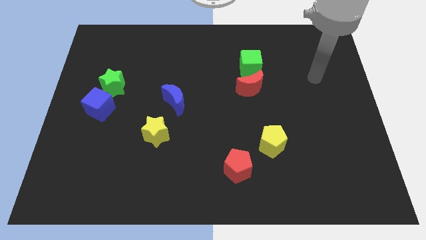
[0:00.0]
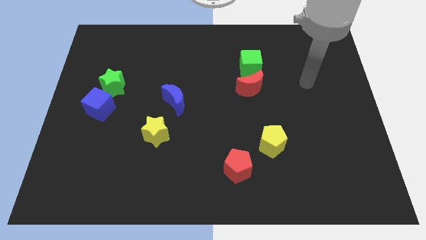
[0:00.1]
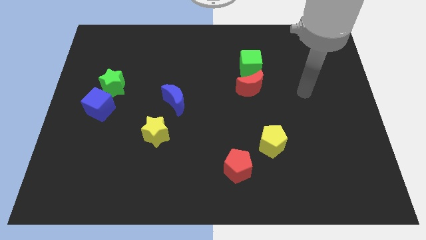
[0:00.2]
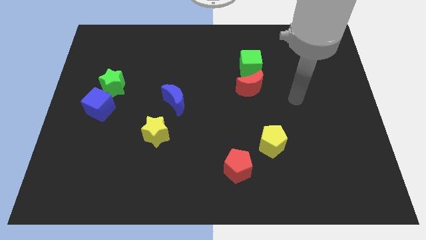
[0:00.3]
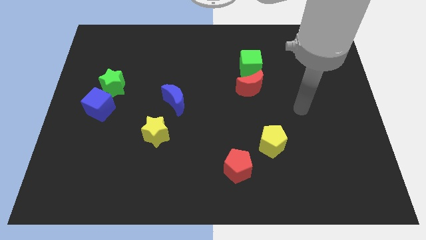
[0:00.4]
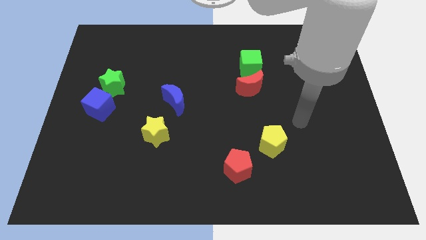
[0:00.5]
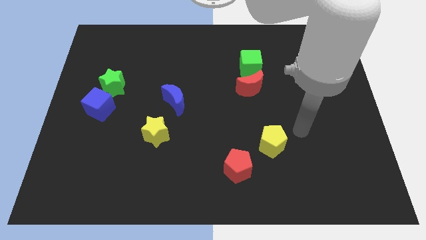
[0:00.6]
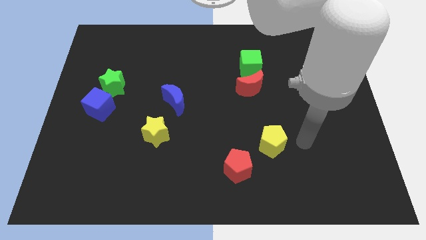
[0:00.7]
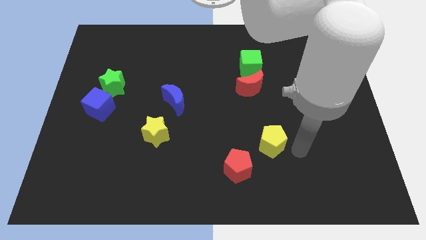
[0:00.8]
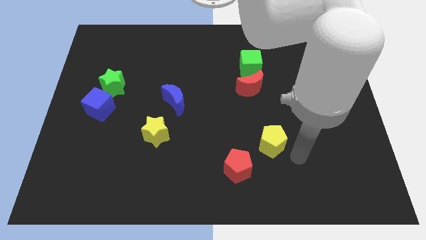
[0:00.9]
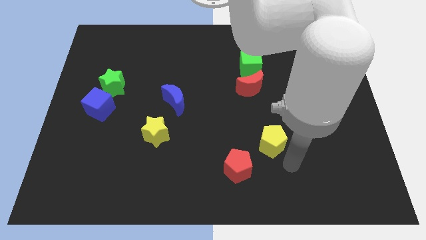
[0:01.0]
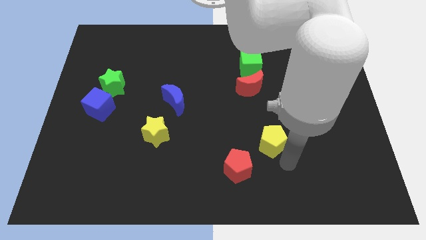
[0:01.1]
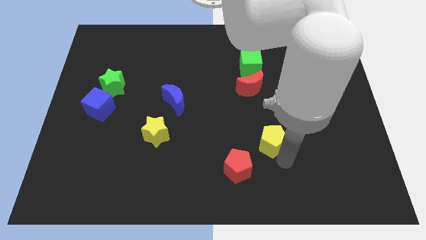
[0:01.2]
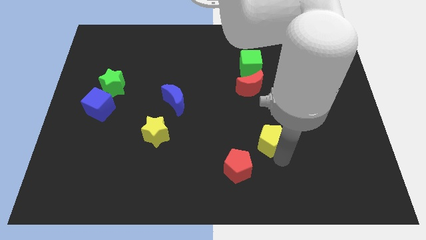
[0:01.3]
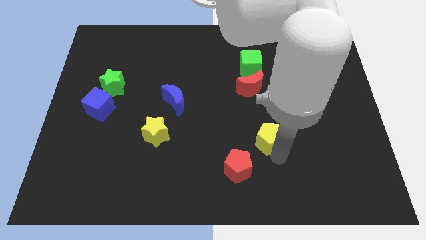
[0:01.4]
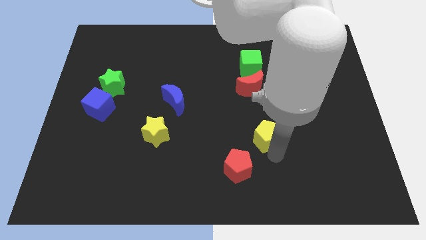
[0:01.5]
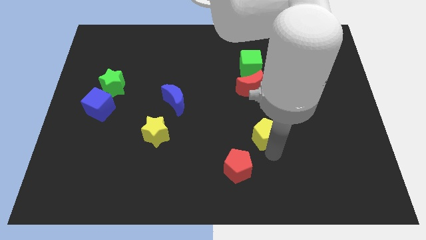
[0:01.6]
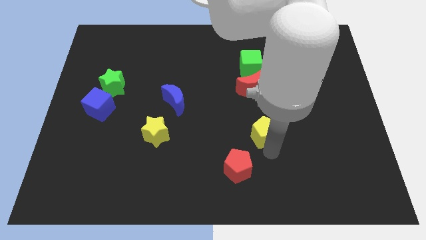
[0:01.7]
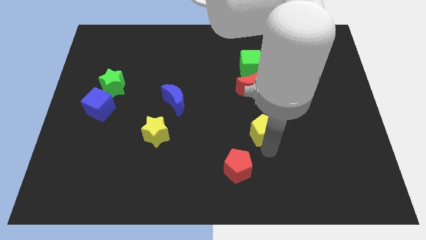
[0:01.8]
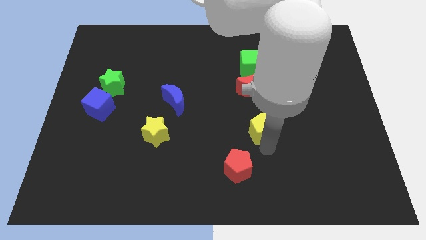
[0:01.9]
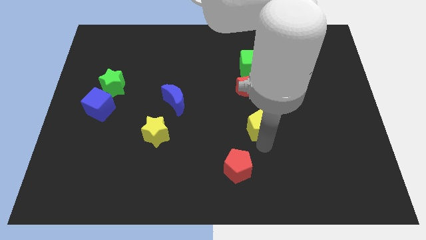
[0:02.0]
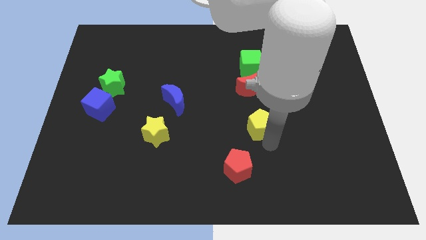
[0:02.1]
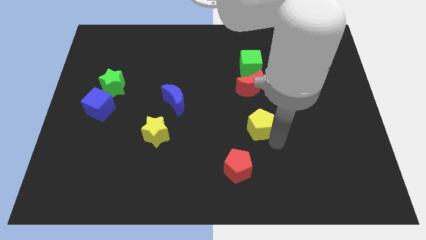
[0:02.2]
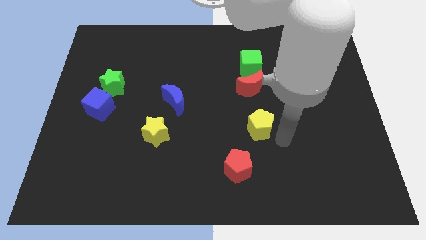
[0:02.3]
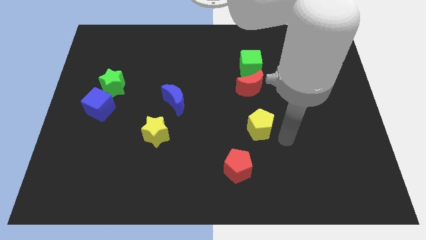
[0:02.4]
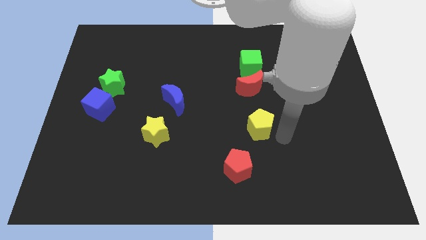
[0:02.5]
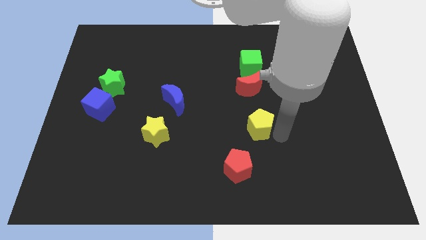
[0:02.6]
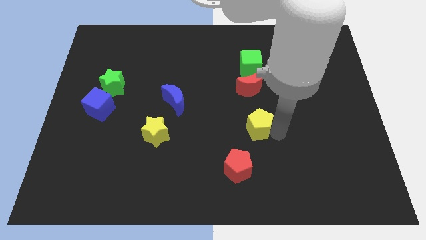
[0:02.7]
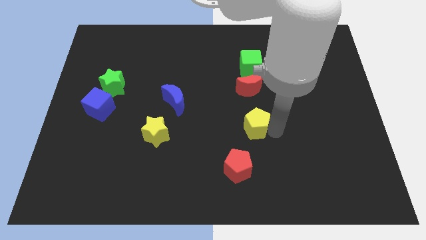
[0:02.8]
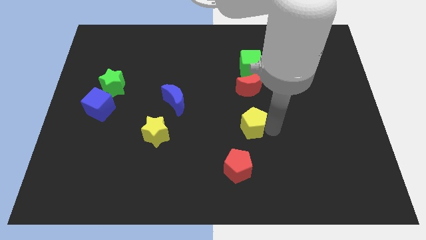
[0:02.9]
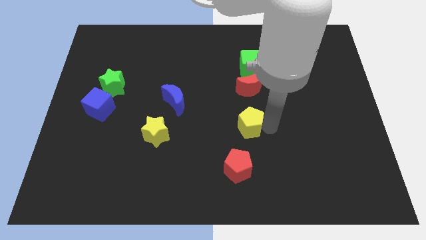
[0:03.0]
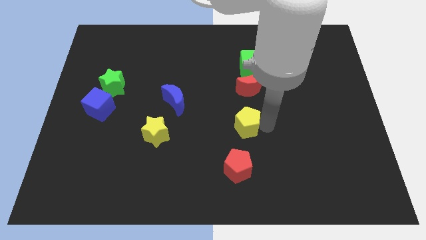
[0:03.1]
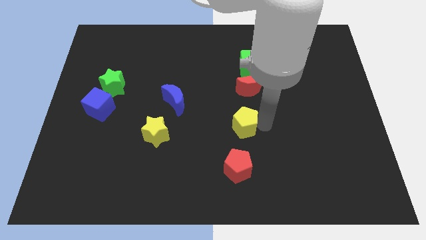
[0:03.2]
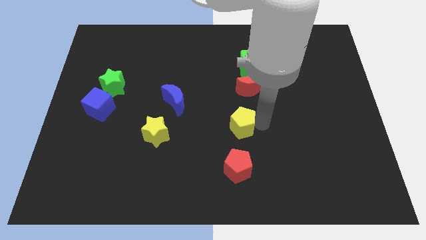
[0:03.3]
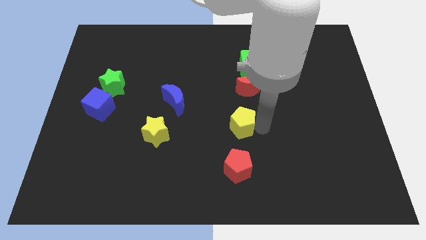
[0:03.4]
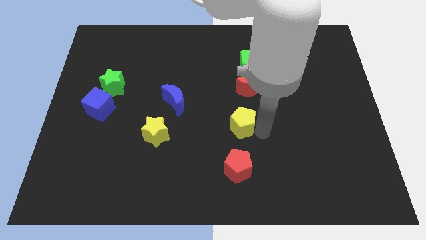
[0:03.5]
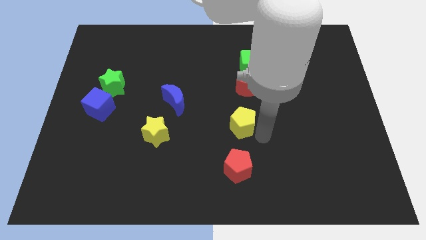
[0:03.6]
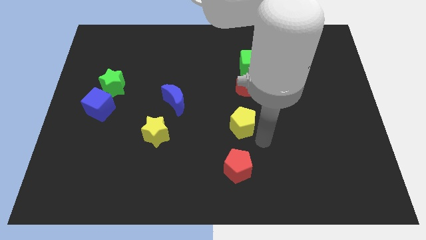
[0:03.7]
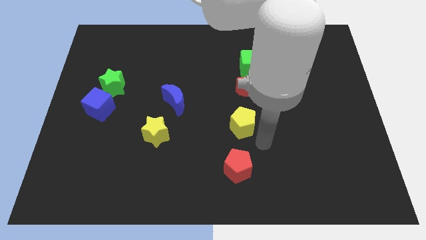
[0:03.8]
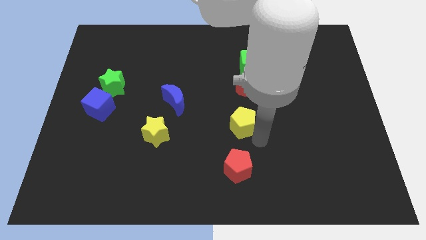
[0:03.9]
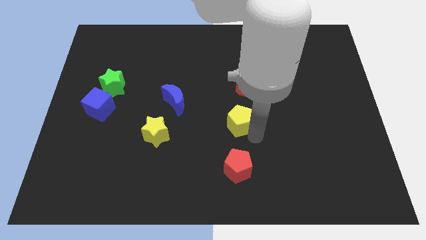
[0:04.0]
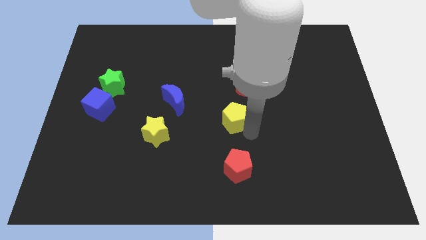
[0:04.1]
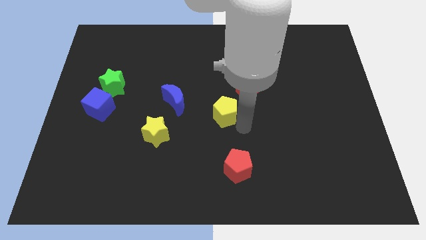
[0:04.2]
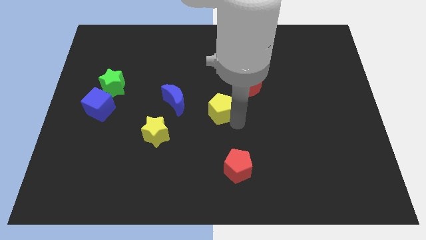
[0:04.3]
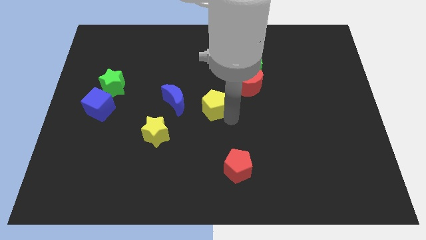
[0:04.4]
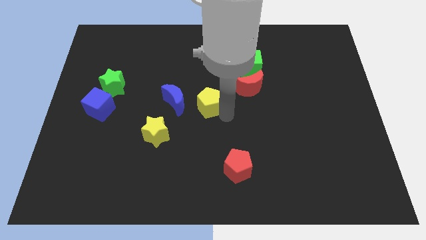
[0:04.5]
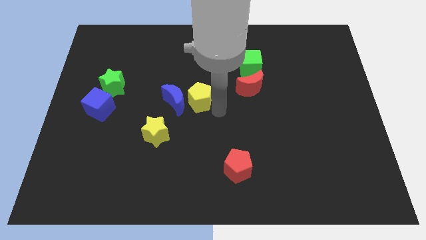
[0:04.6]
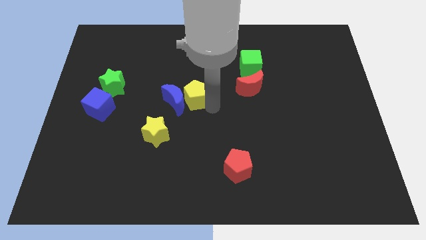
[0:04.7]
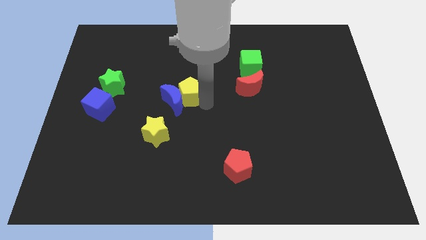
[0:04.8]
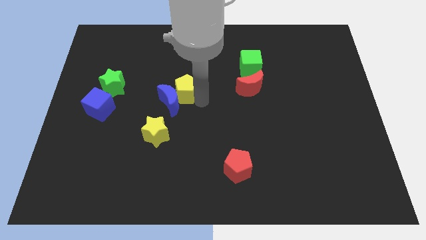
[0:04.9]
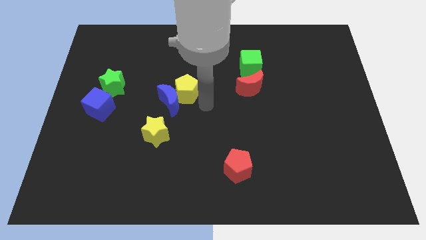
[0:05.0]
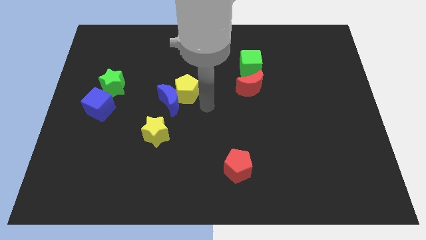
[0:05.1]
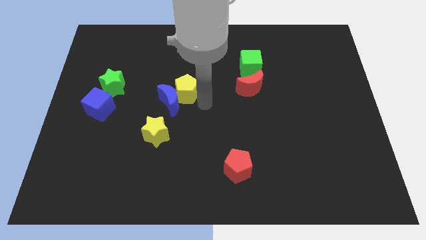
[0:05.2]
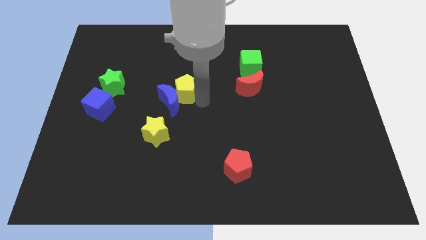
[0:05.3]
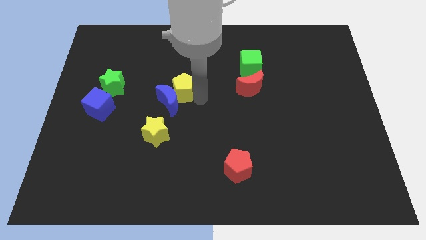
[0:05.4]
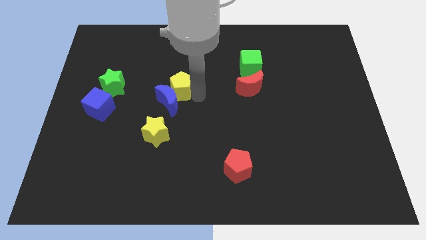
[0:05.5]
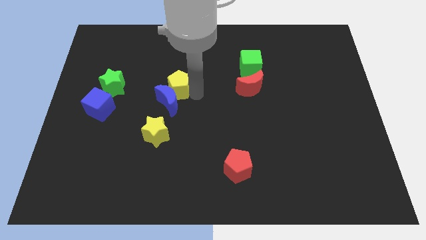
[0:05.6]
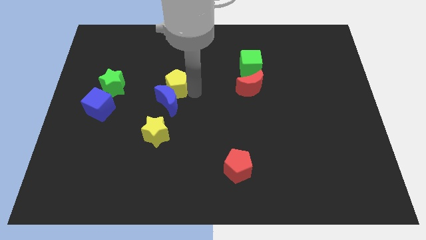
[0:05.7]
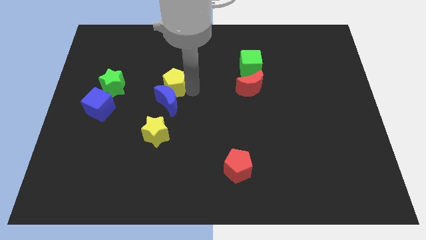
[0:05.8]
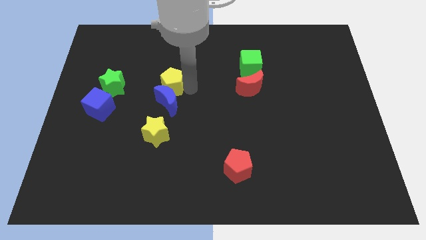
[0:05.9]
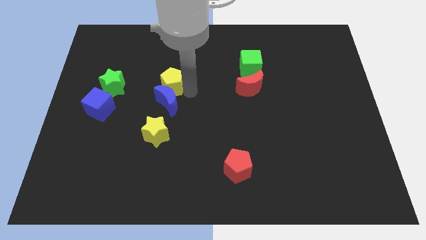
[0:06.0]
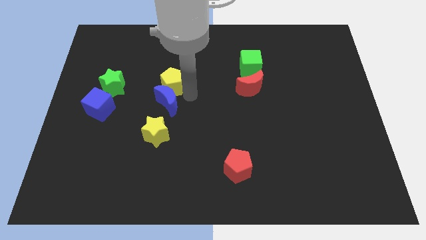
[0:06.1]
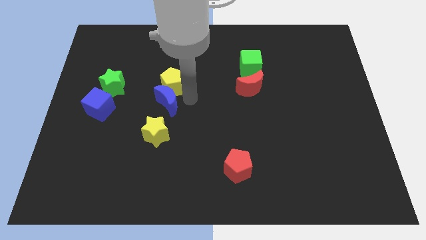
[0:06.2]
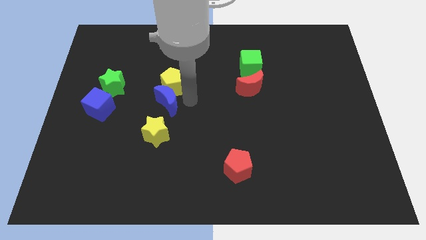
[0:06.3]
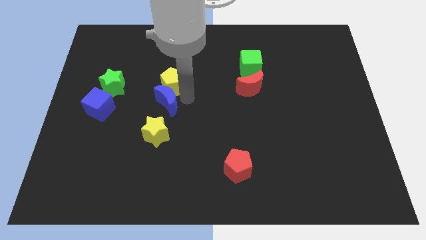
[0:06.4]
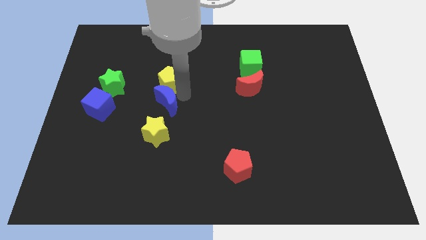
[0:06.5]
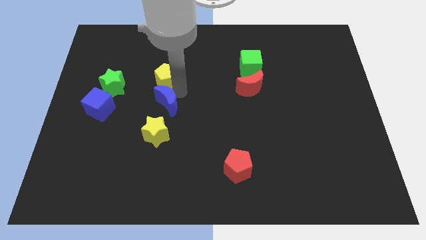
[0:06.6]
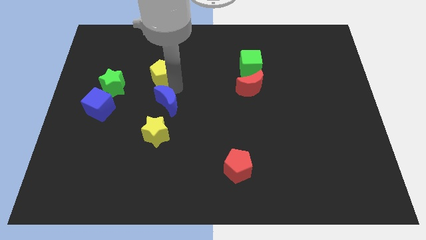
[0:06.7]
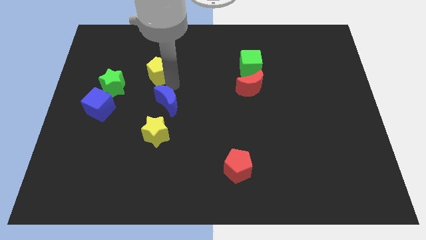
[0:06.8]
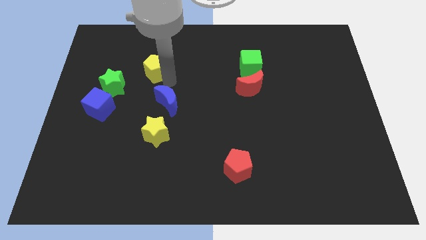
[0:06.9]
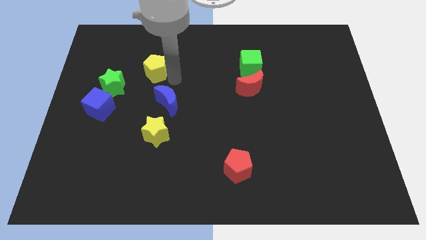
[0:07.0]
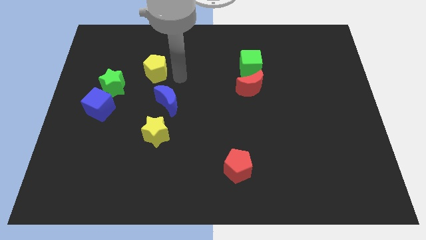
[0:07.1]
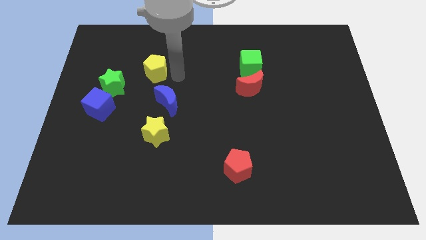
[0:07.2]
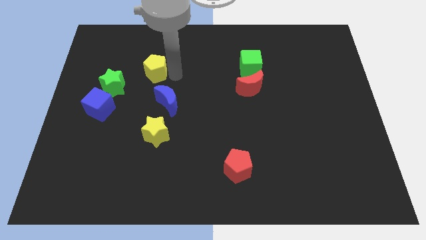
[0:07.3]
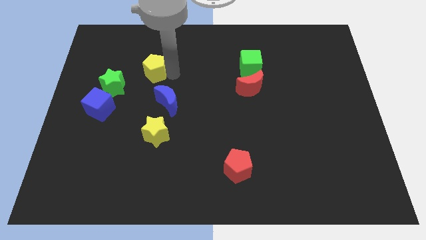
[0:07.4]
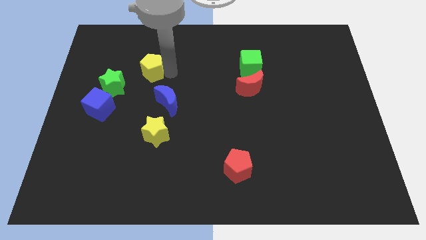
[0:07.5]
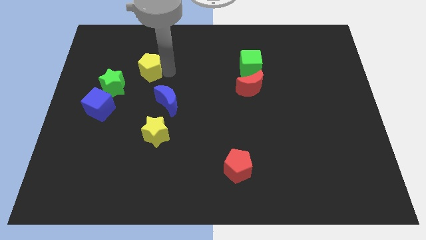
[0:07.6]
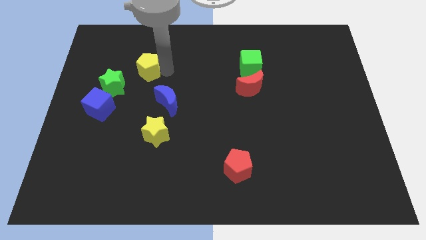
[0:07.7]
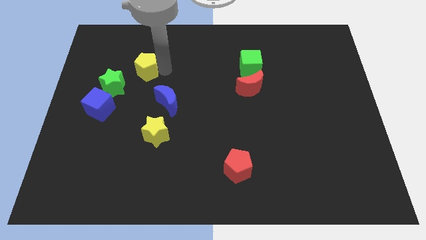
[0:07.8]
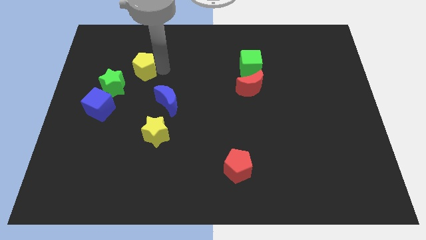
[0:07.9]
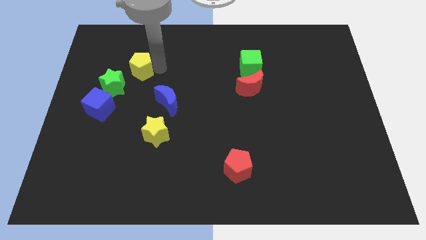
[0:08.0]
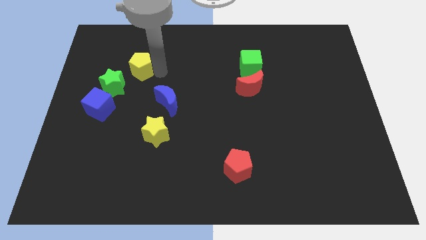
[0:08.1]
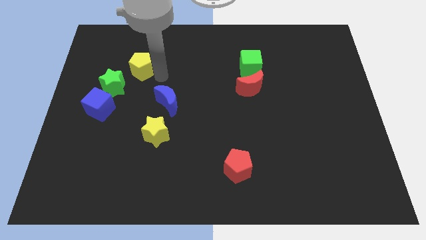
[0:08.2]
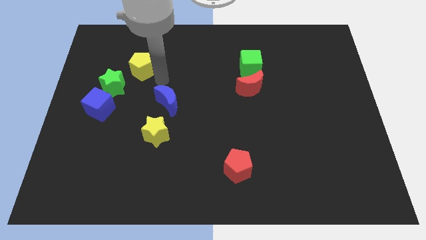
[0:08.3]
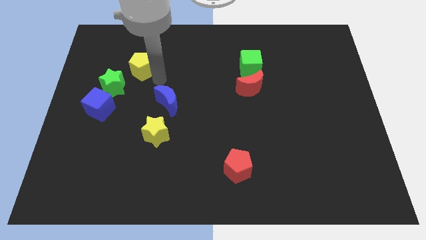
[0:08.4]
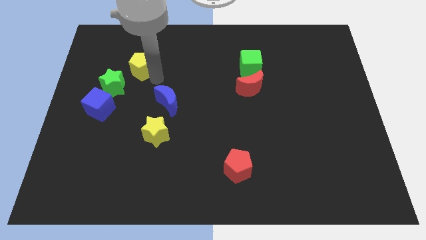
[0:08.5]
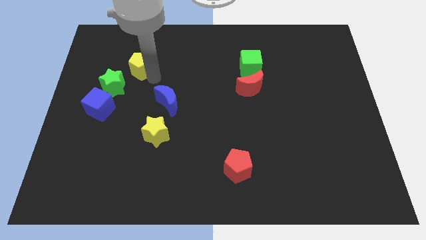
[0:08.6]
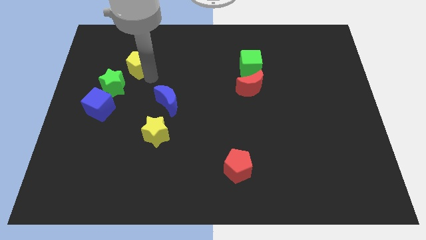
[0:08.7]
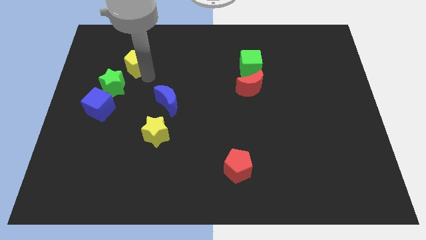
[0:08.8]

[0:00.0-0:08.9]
move the yellow pentagon above the green star
